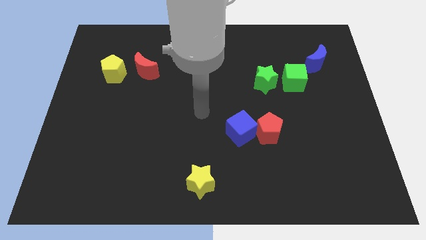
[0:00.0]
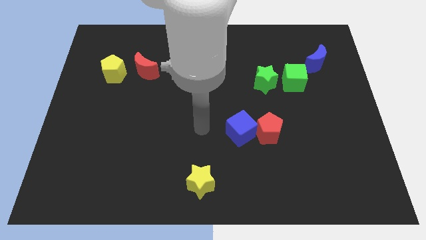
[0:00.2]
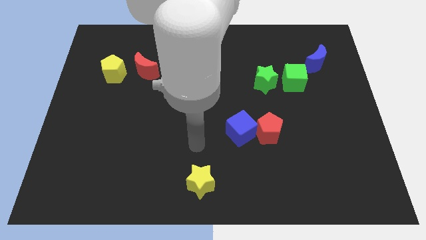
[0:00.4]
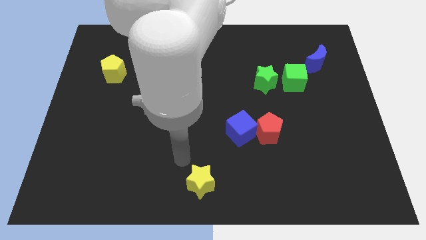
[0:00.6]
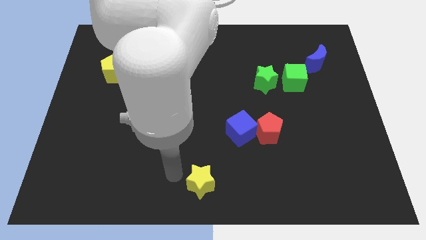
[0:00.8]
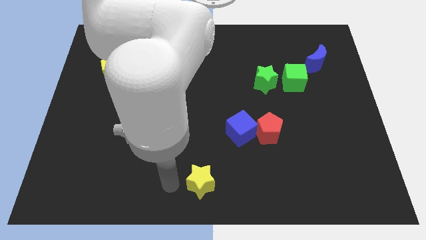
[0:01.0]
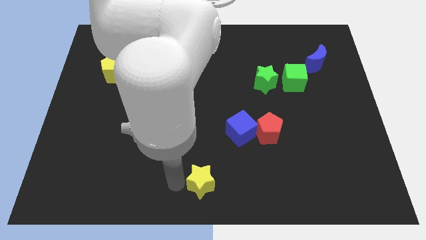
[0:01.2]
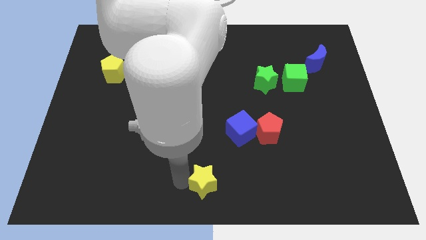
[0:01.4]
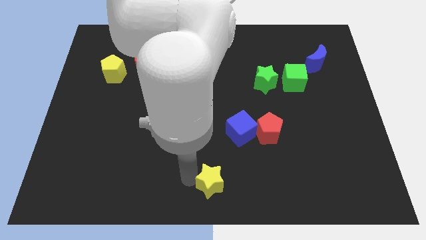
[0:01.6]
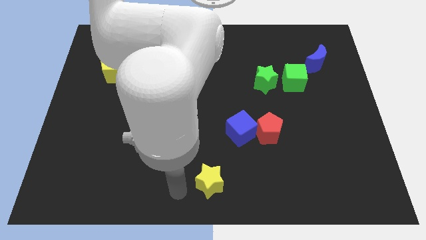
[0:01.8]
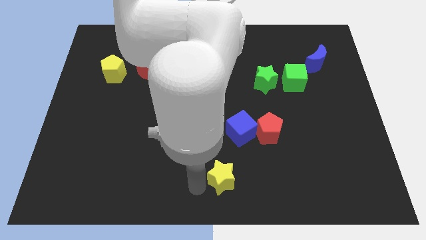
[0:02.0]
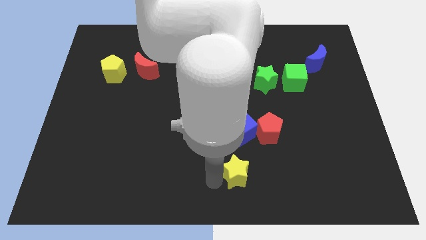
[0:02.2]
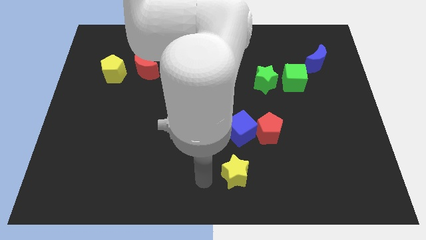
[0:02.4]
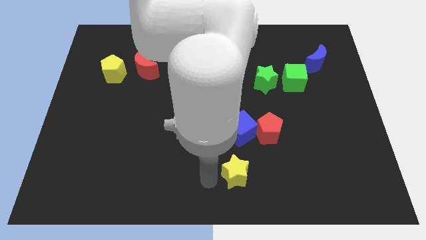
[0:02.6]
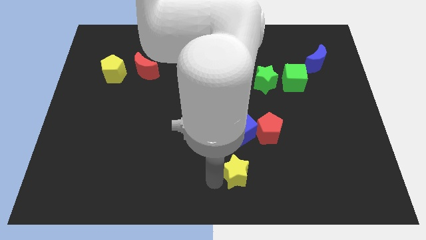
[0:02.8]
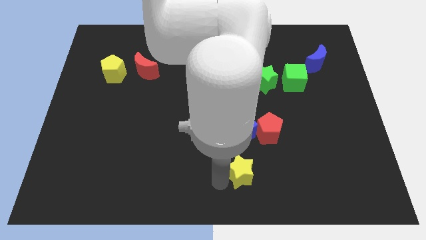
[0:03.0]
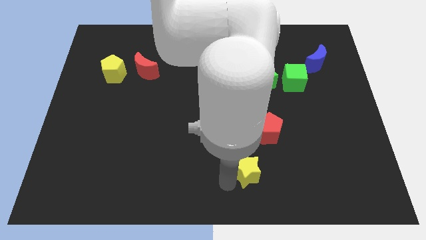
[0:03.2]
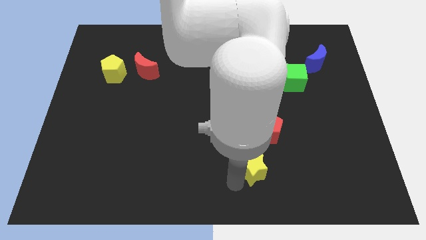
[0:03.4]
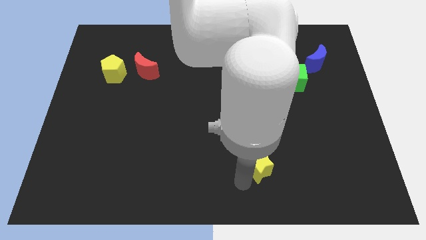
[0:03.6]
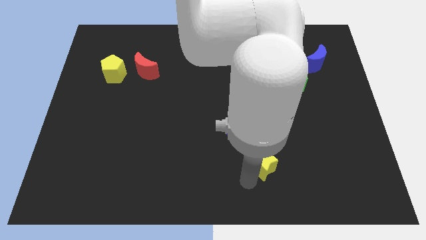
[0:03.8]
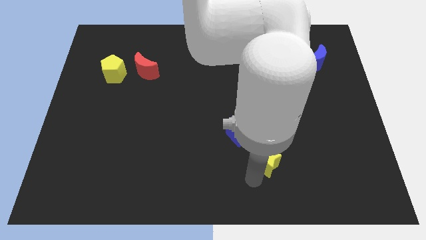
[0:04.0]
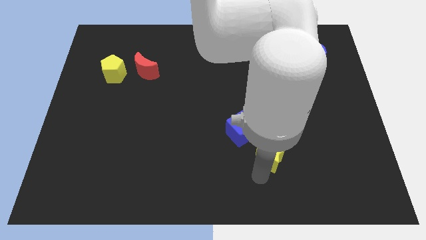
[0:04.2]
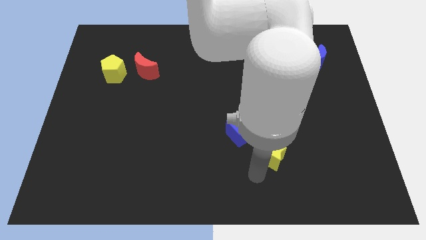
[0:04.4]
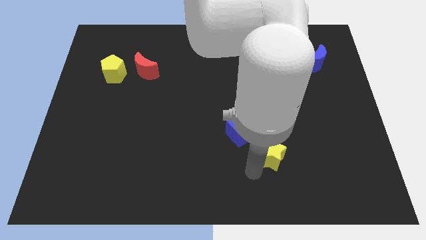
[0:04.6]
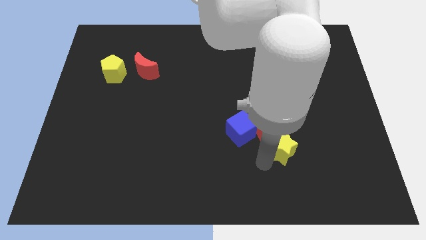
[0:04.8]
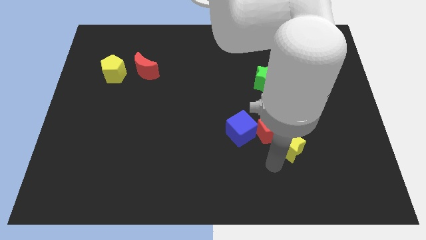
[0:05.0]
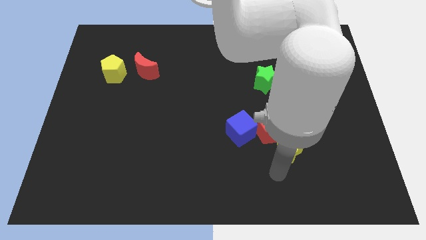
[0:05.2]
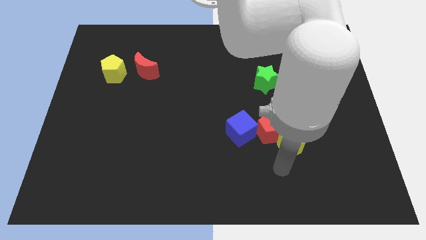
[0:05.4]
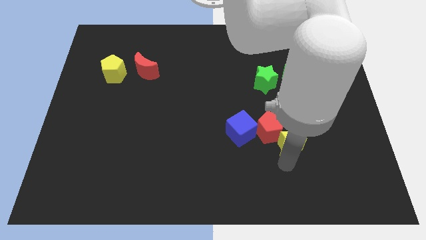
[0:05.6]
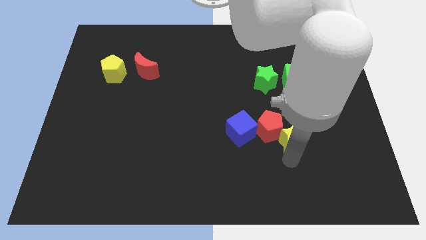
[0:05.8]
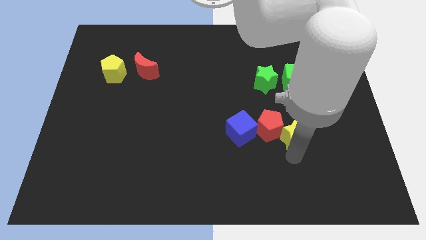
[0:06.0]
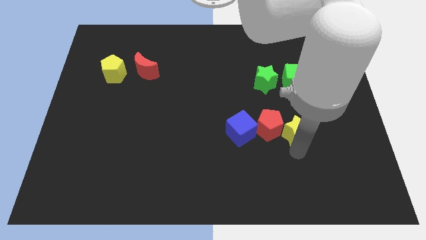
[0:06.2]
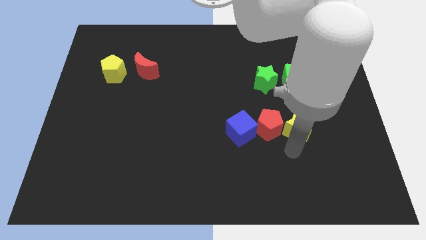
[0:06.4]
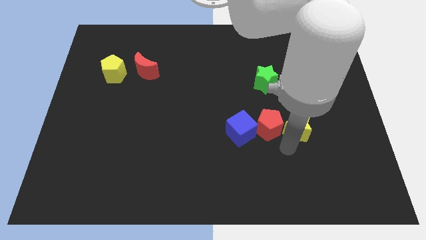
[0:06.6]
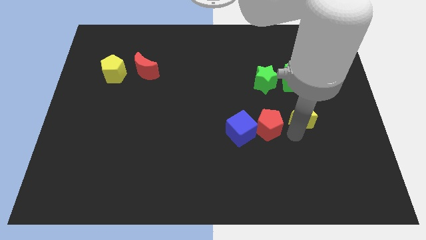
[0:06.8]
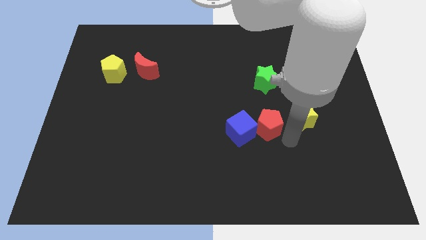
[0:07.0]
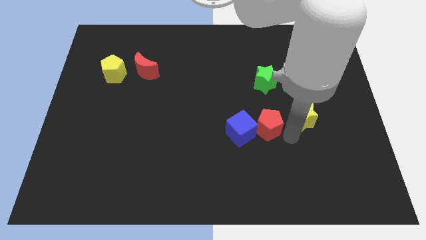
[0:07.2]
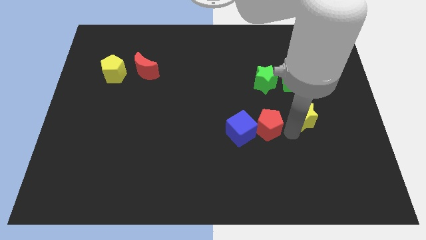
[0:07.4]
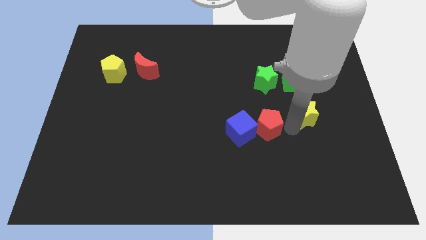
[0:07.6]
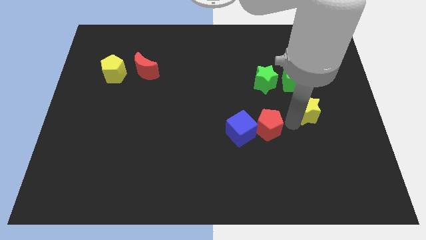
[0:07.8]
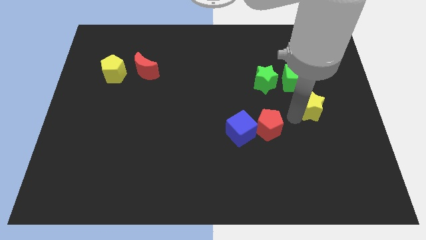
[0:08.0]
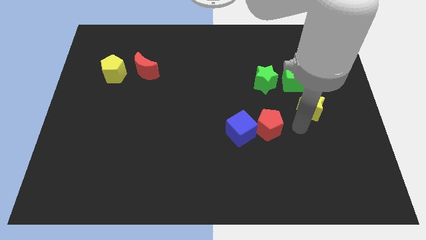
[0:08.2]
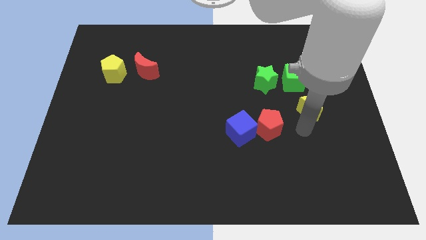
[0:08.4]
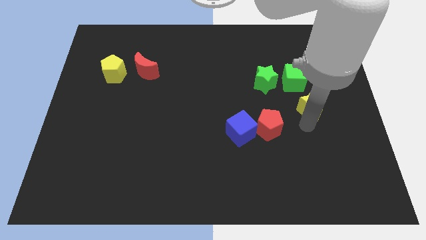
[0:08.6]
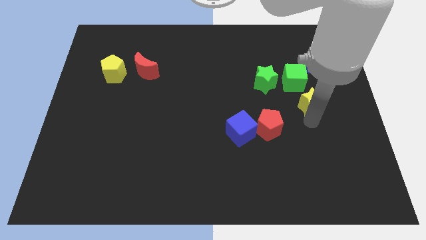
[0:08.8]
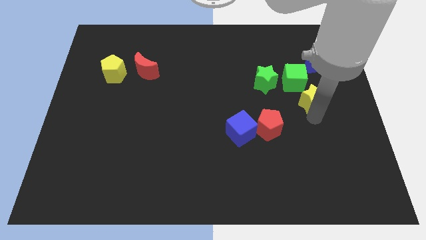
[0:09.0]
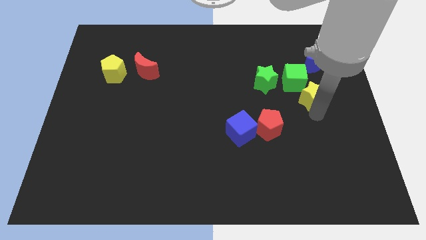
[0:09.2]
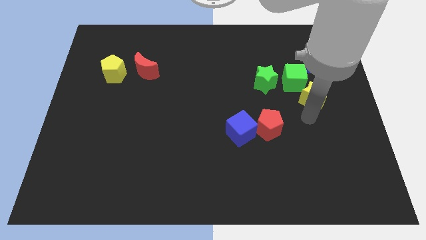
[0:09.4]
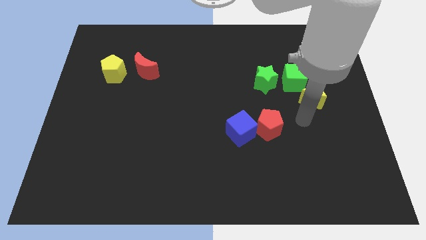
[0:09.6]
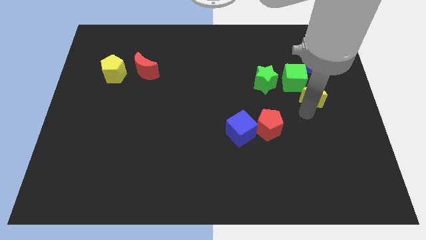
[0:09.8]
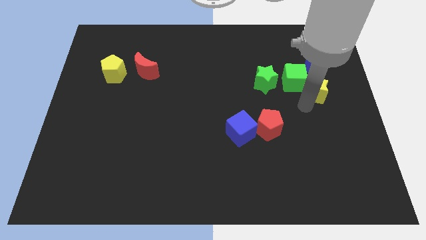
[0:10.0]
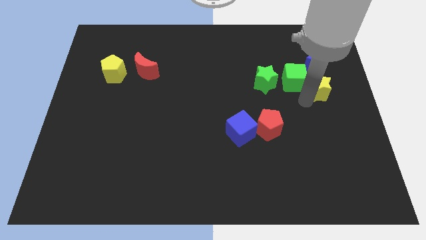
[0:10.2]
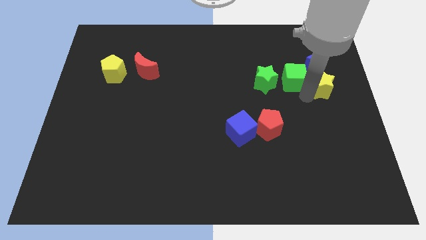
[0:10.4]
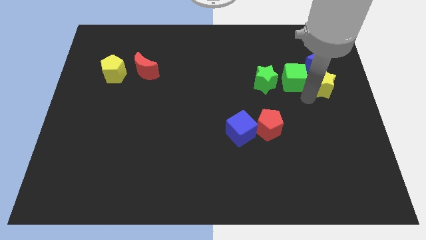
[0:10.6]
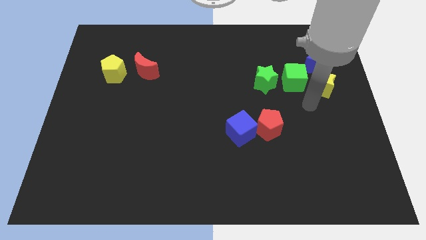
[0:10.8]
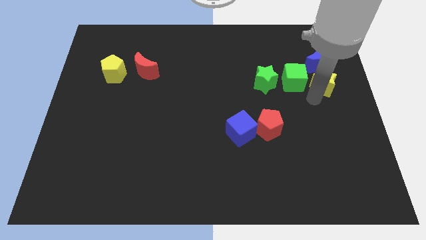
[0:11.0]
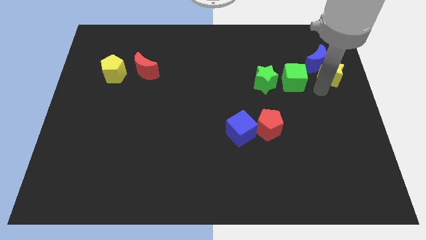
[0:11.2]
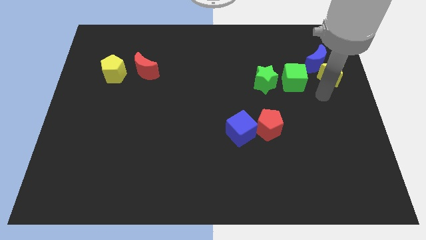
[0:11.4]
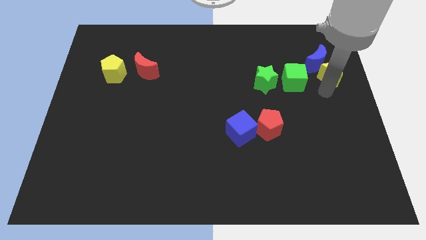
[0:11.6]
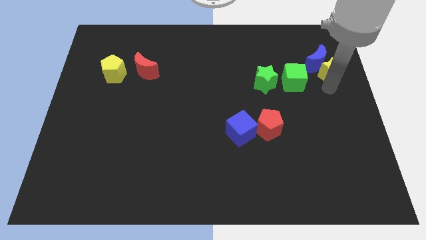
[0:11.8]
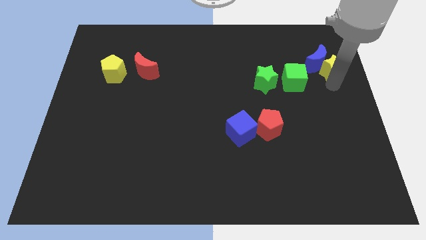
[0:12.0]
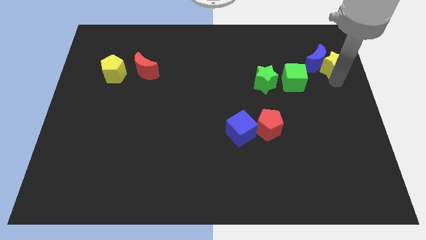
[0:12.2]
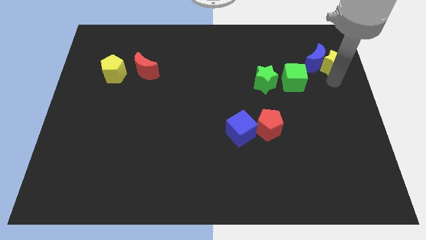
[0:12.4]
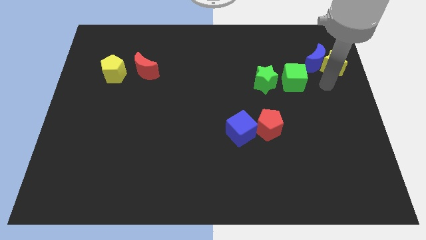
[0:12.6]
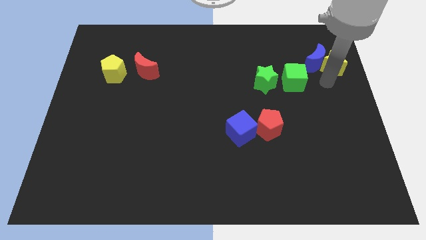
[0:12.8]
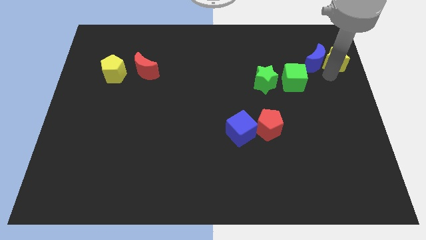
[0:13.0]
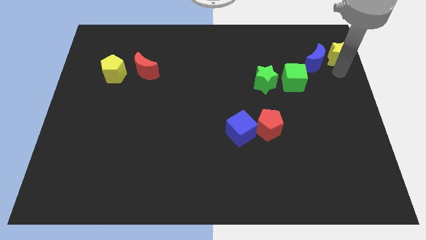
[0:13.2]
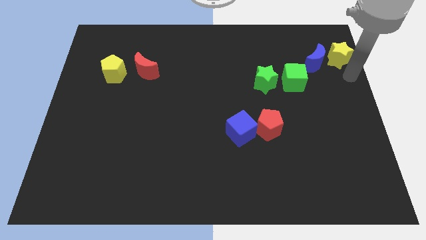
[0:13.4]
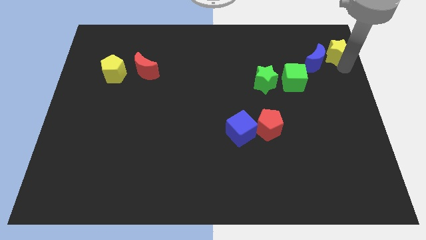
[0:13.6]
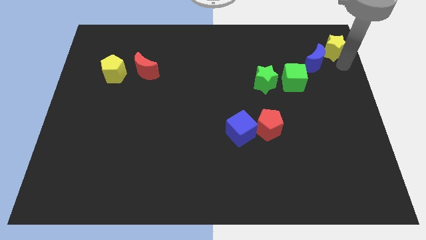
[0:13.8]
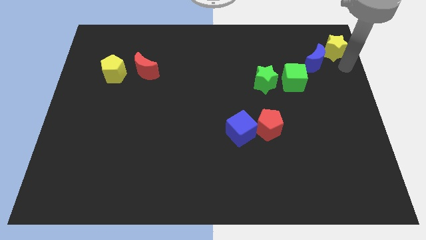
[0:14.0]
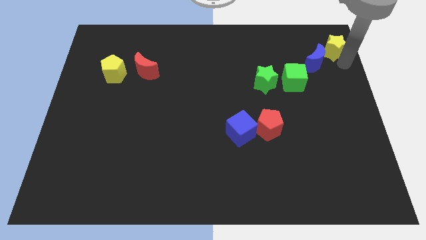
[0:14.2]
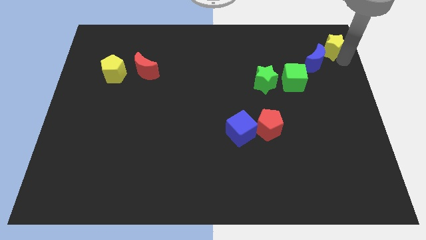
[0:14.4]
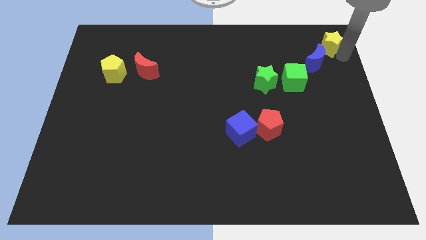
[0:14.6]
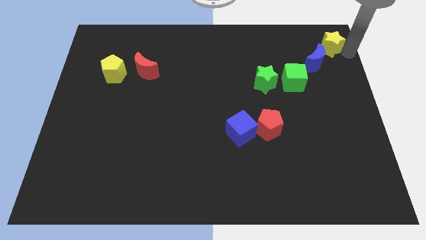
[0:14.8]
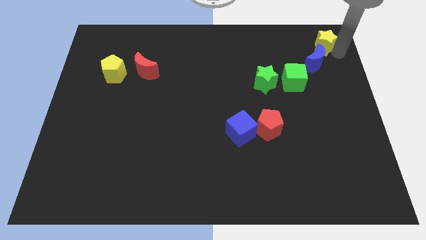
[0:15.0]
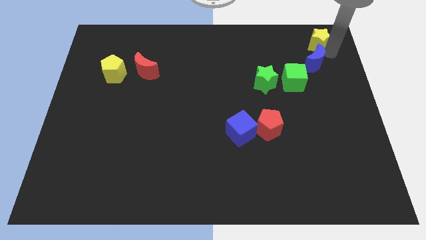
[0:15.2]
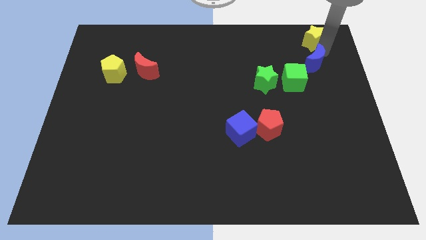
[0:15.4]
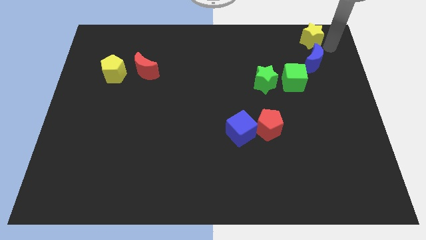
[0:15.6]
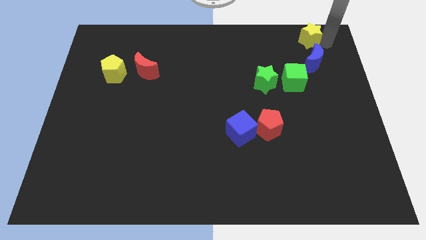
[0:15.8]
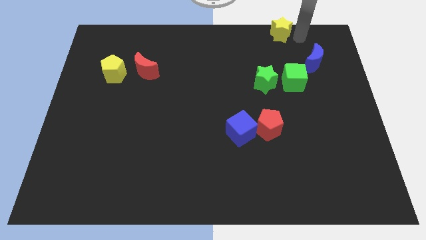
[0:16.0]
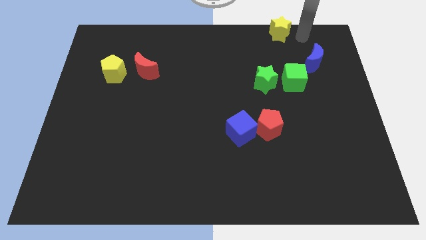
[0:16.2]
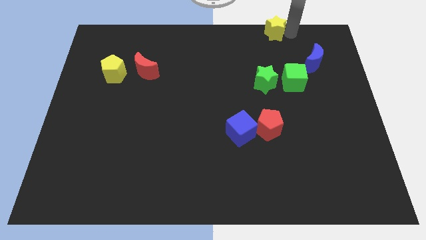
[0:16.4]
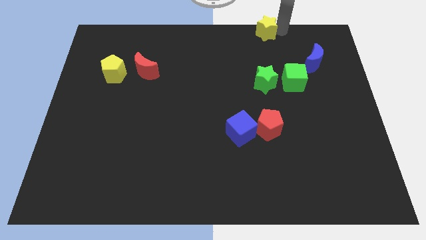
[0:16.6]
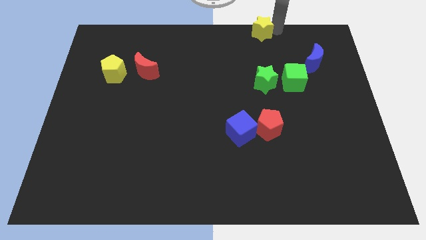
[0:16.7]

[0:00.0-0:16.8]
slide the yellow star to the top side
